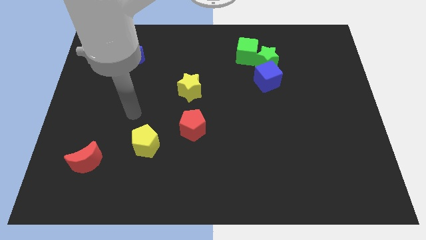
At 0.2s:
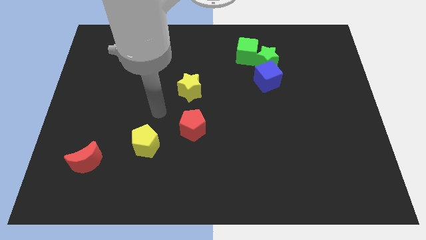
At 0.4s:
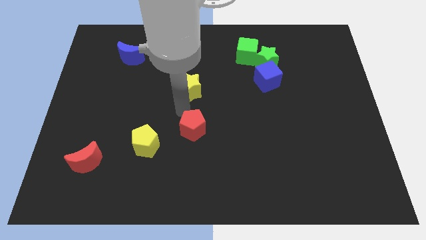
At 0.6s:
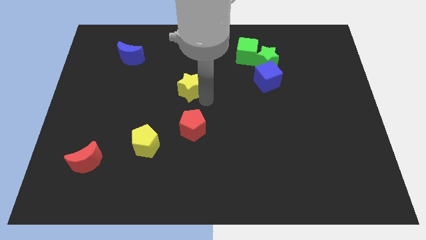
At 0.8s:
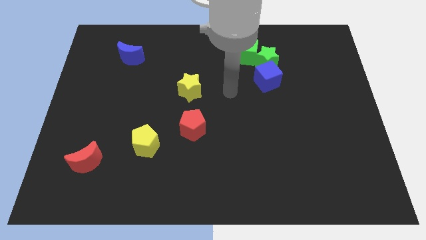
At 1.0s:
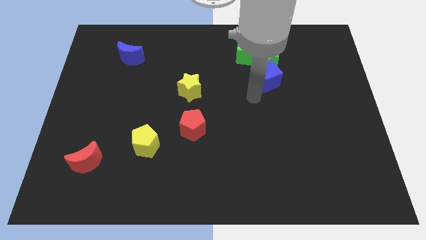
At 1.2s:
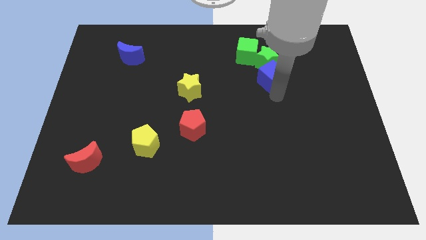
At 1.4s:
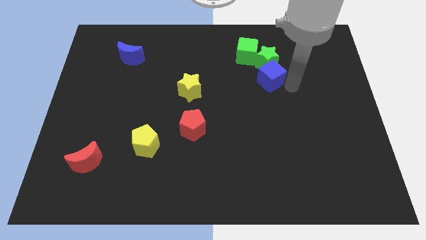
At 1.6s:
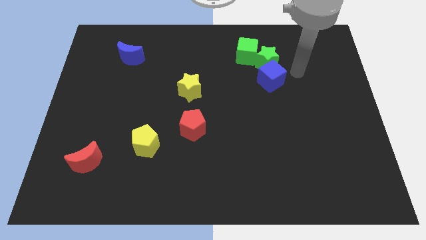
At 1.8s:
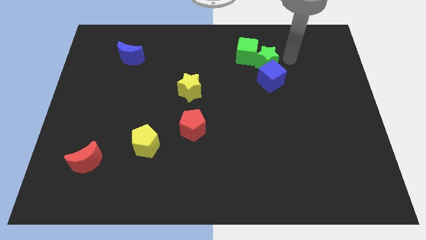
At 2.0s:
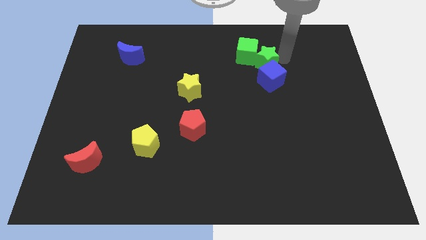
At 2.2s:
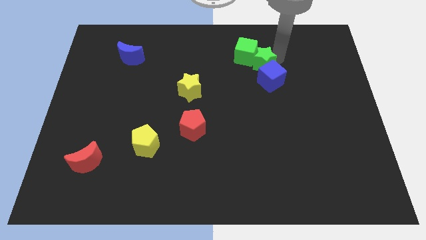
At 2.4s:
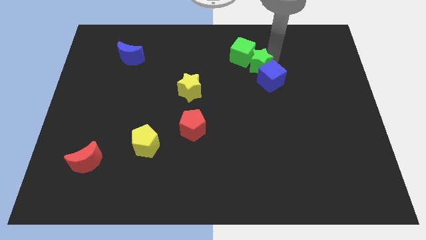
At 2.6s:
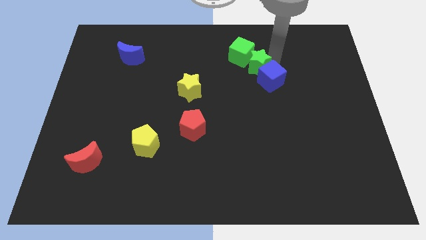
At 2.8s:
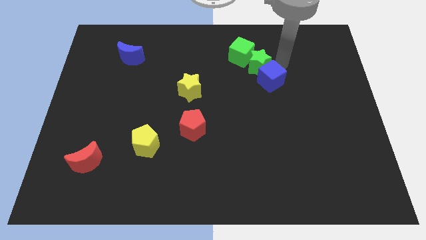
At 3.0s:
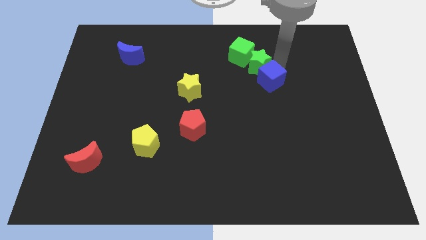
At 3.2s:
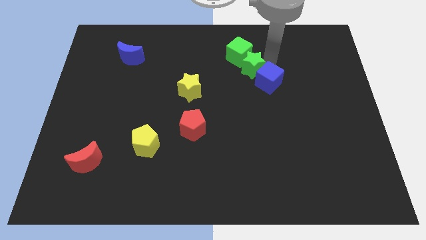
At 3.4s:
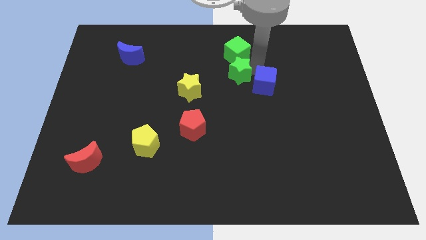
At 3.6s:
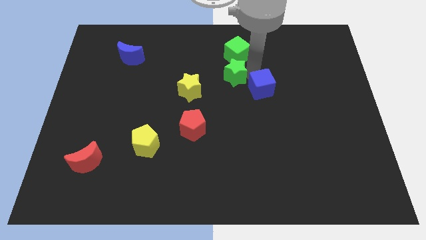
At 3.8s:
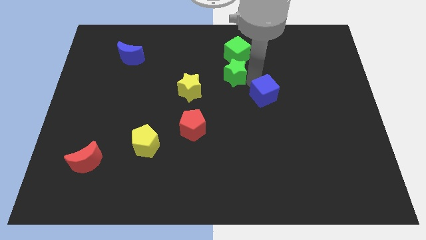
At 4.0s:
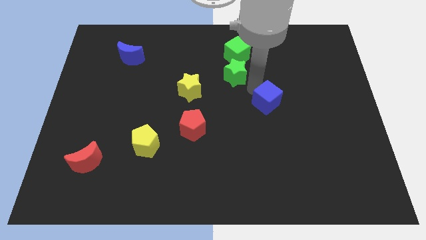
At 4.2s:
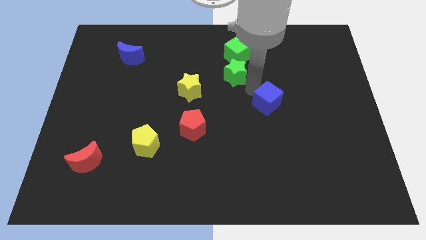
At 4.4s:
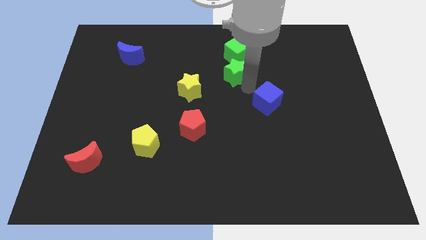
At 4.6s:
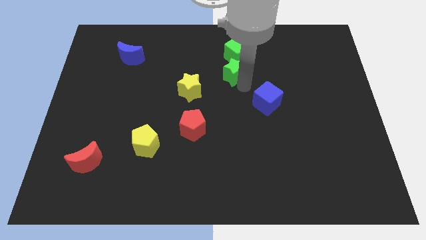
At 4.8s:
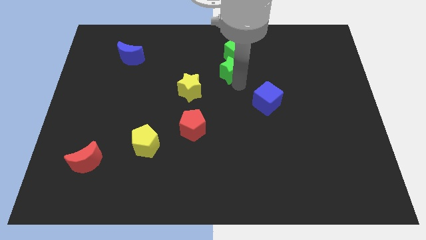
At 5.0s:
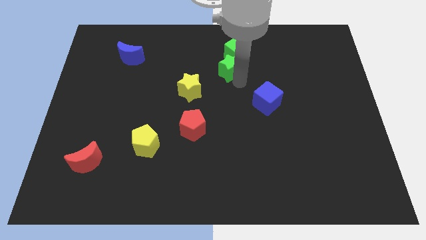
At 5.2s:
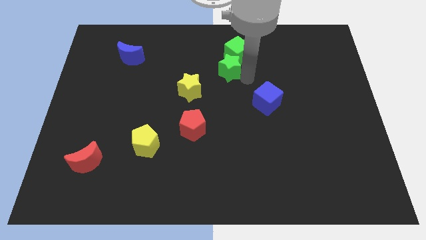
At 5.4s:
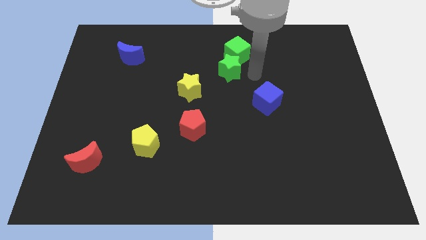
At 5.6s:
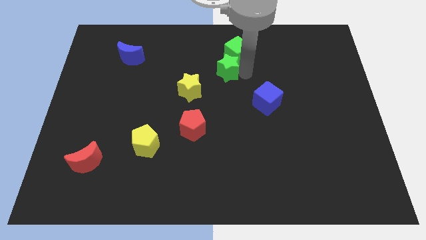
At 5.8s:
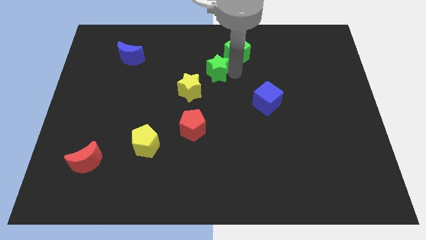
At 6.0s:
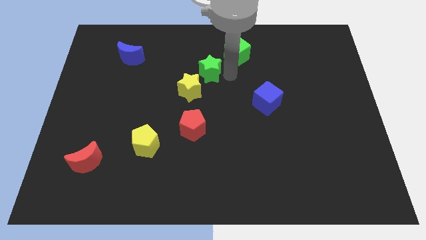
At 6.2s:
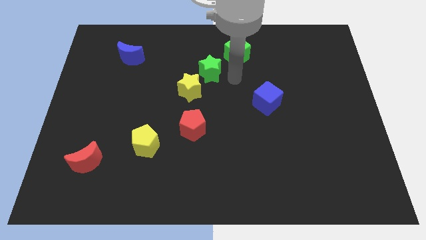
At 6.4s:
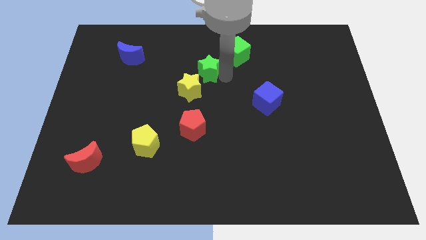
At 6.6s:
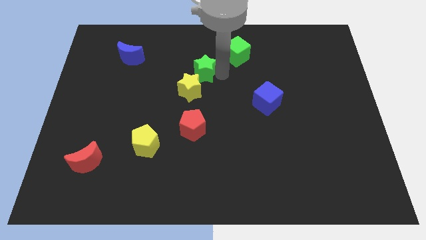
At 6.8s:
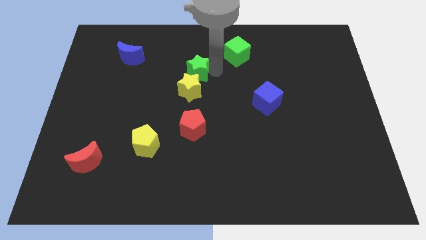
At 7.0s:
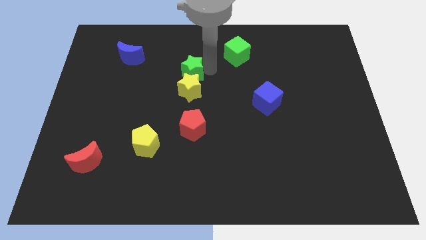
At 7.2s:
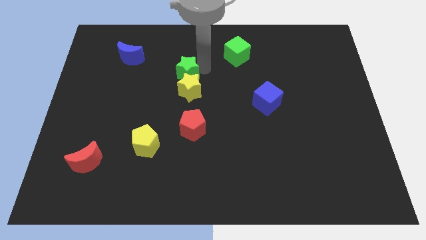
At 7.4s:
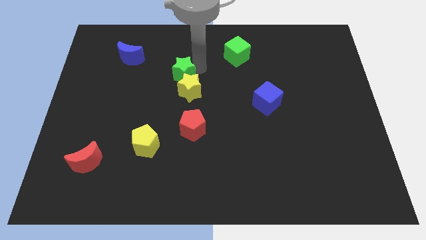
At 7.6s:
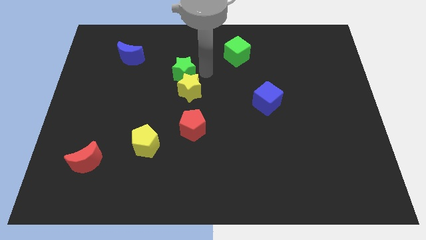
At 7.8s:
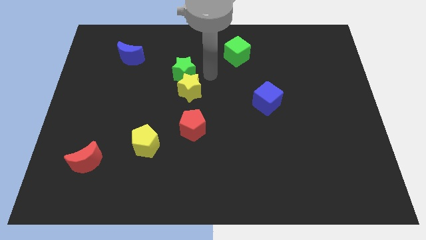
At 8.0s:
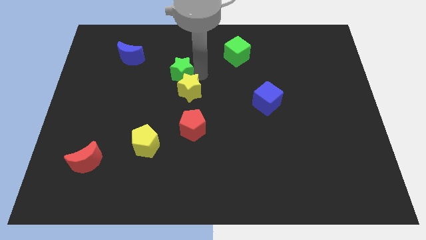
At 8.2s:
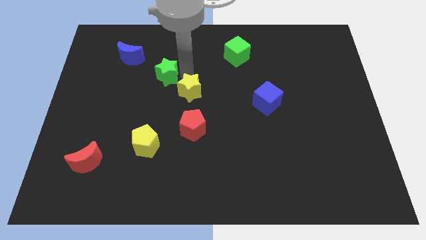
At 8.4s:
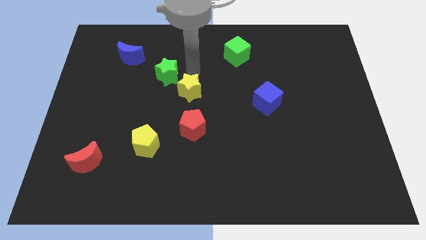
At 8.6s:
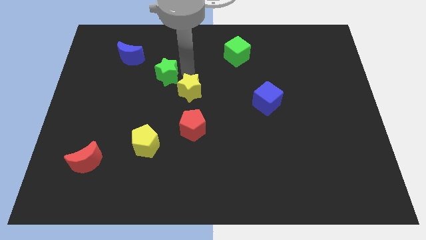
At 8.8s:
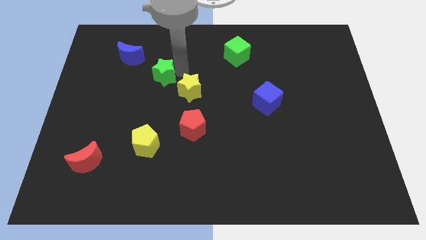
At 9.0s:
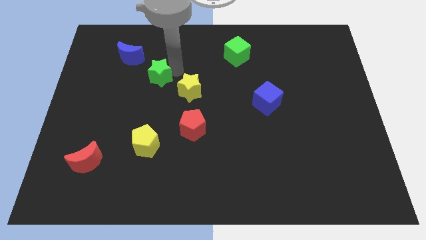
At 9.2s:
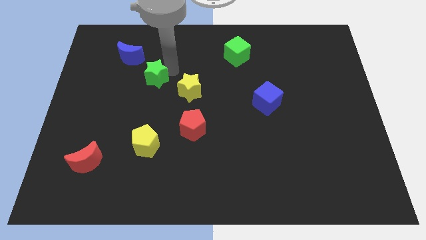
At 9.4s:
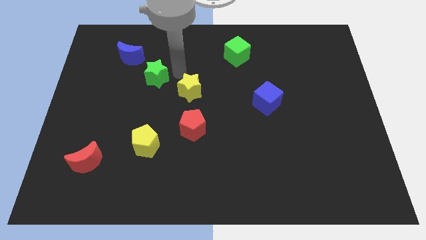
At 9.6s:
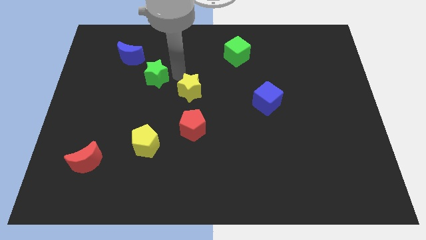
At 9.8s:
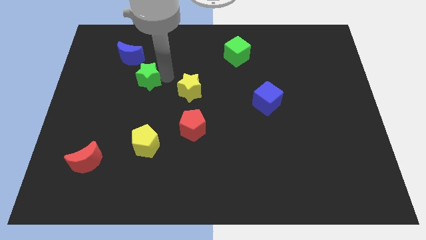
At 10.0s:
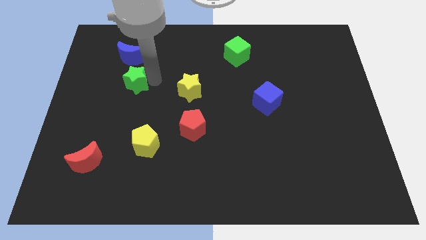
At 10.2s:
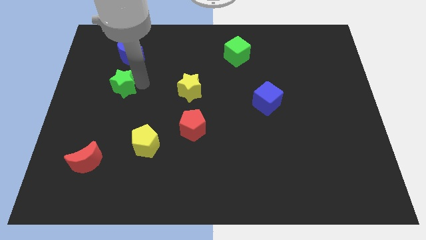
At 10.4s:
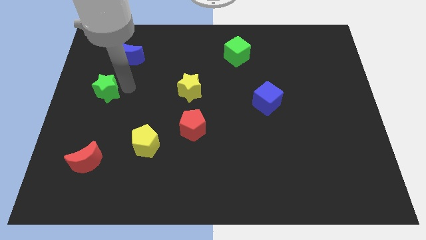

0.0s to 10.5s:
push the green star to the left side

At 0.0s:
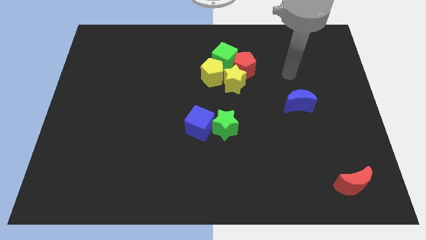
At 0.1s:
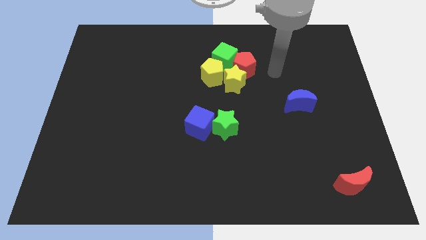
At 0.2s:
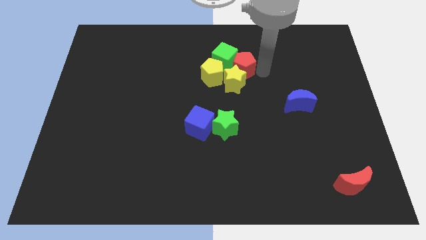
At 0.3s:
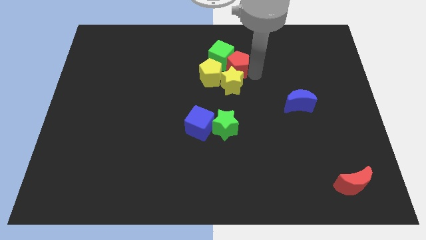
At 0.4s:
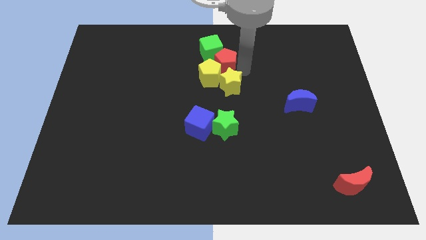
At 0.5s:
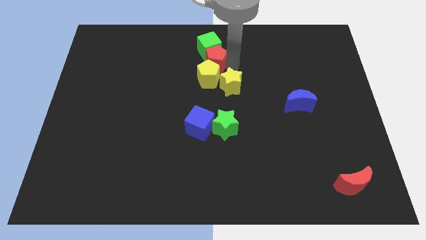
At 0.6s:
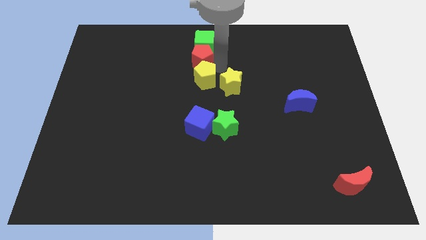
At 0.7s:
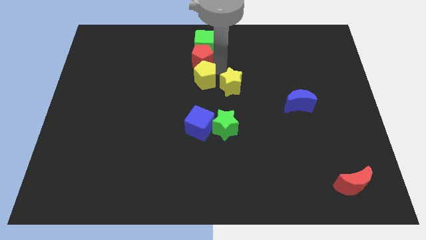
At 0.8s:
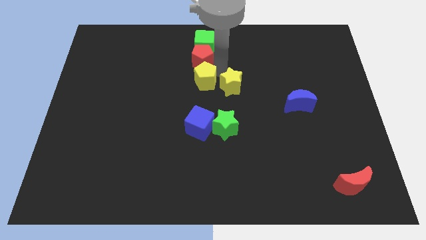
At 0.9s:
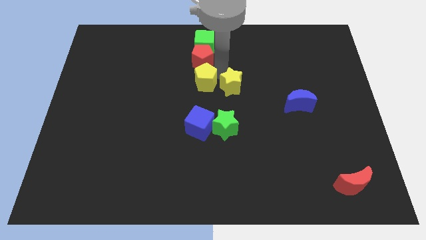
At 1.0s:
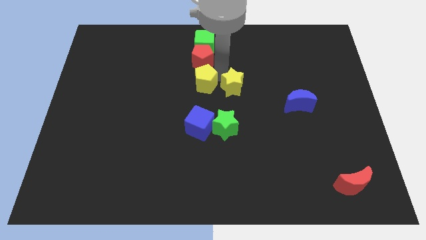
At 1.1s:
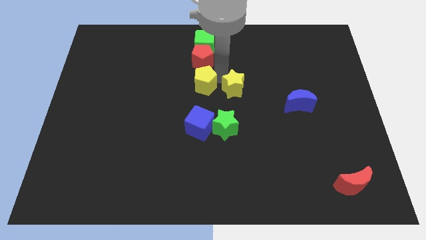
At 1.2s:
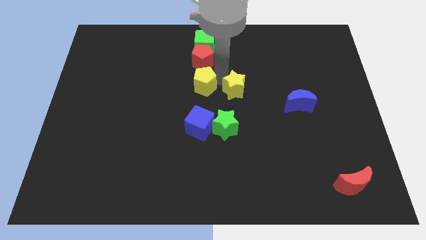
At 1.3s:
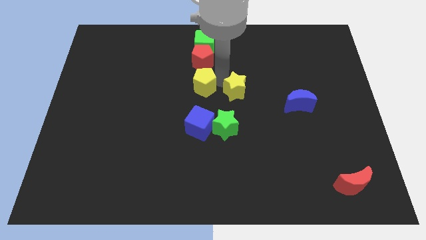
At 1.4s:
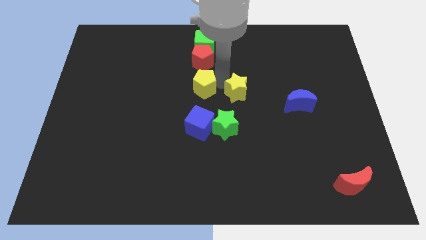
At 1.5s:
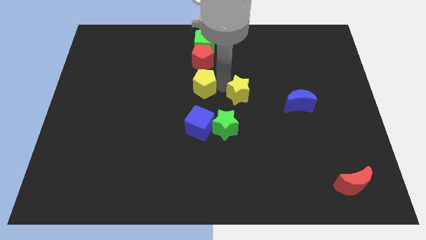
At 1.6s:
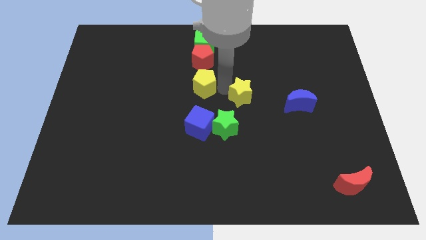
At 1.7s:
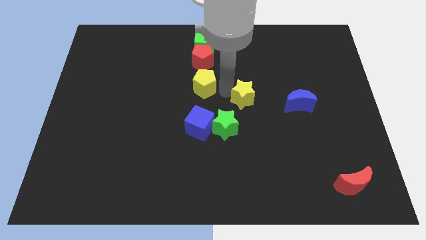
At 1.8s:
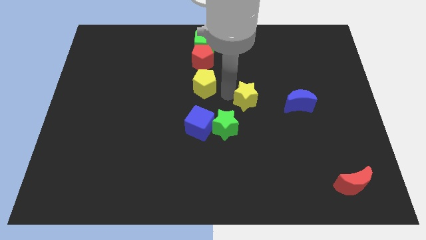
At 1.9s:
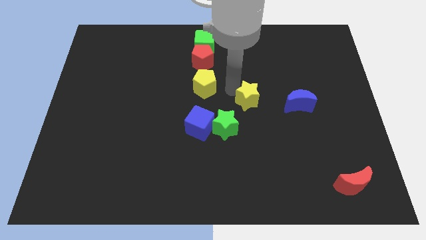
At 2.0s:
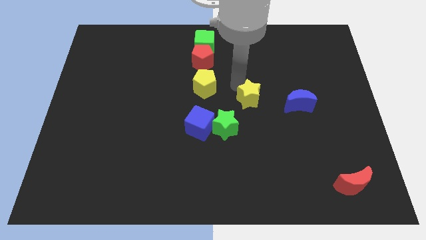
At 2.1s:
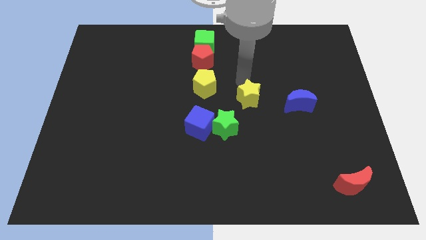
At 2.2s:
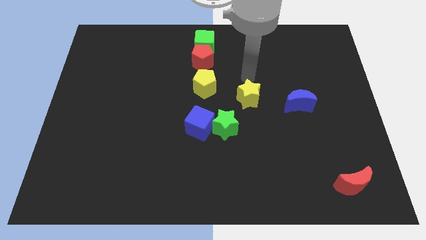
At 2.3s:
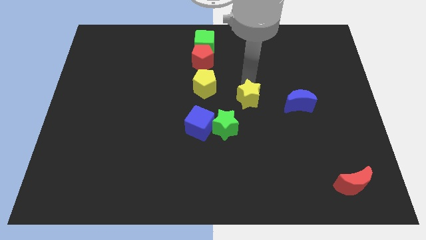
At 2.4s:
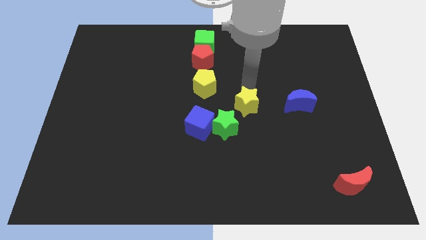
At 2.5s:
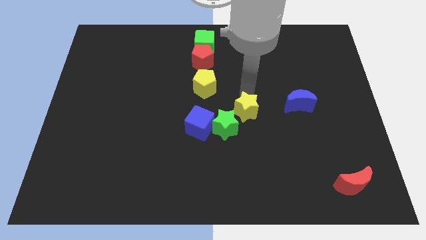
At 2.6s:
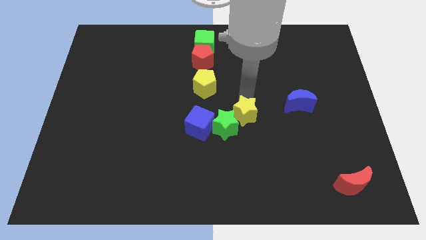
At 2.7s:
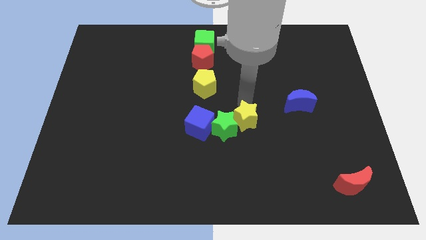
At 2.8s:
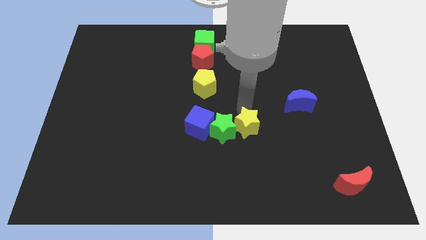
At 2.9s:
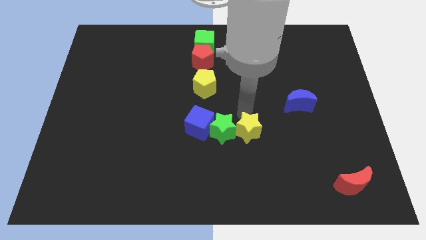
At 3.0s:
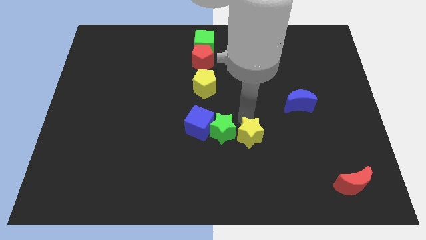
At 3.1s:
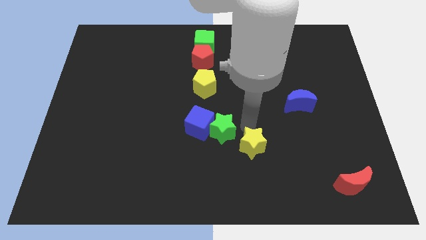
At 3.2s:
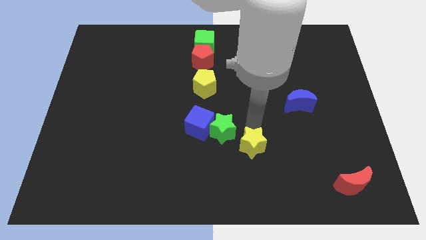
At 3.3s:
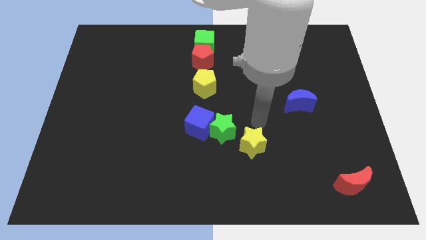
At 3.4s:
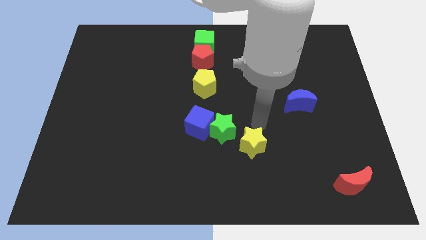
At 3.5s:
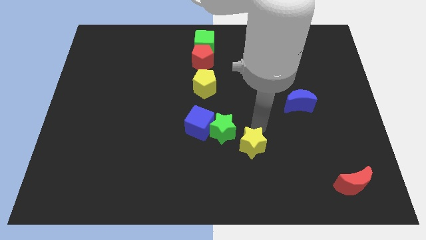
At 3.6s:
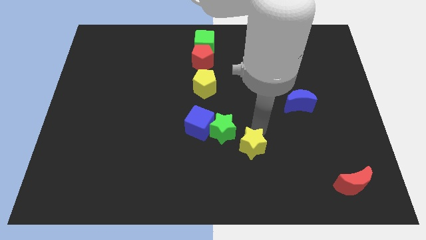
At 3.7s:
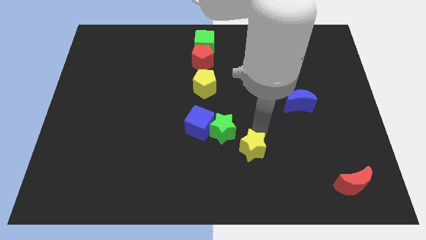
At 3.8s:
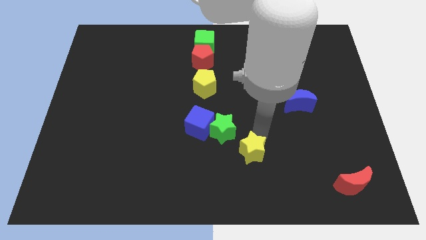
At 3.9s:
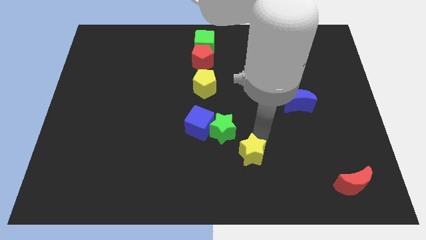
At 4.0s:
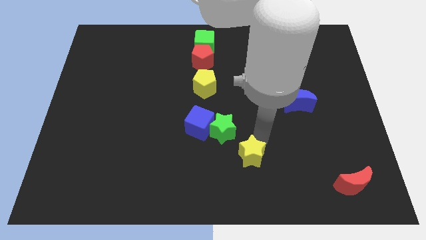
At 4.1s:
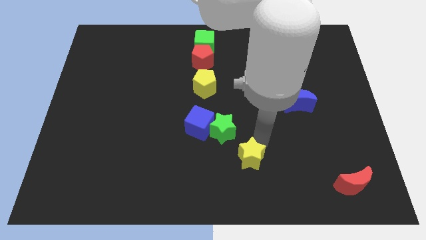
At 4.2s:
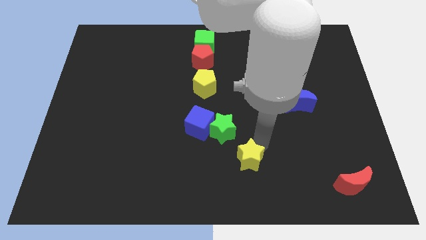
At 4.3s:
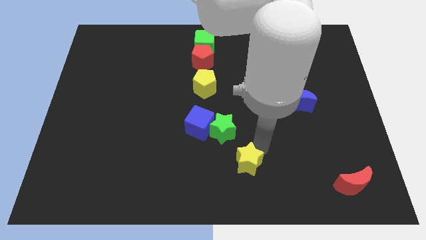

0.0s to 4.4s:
slide the yellow star to the bottom side
